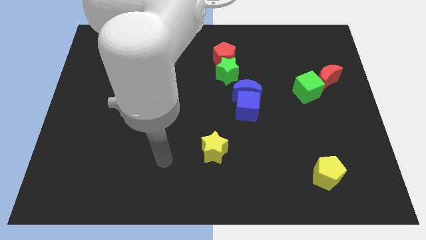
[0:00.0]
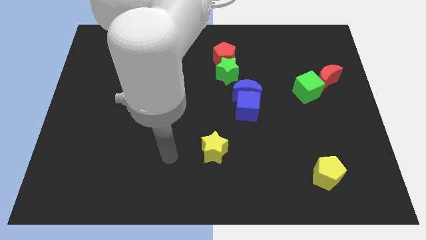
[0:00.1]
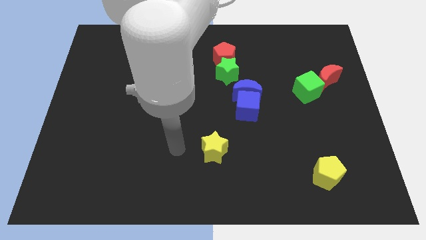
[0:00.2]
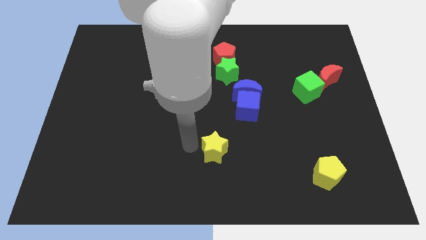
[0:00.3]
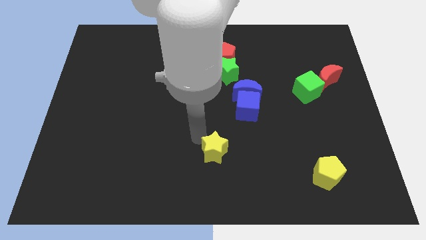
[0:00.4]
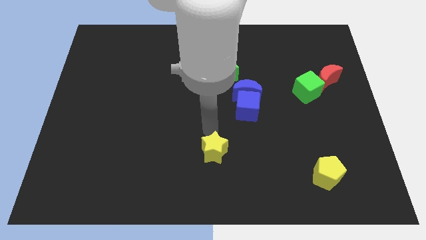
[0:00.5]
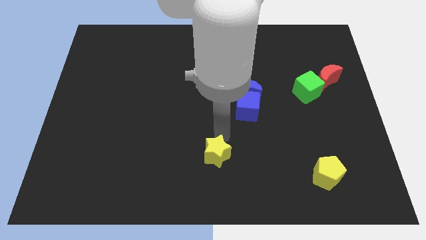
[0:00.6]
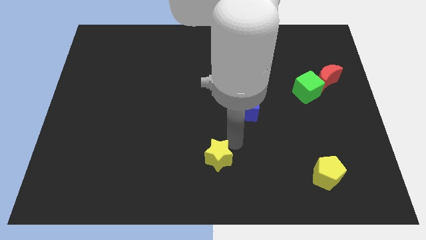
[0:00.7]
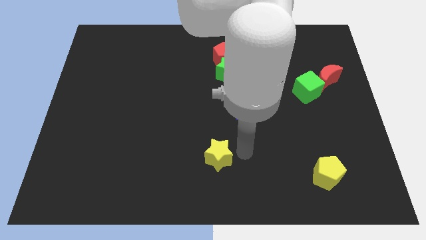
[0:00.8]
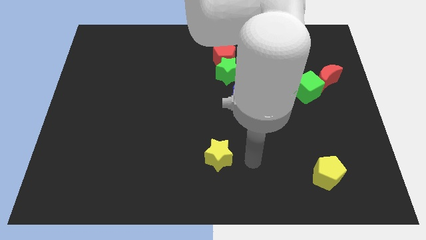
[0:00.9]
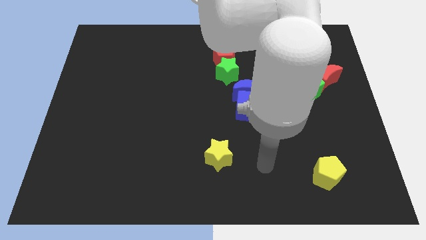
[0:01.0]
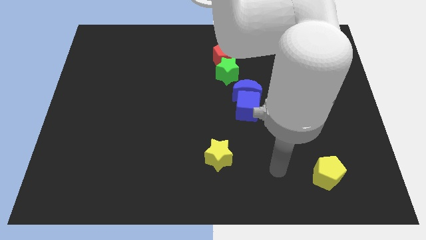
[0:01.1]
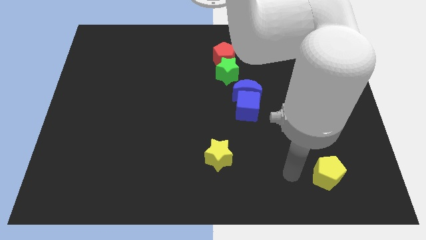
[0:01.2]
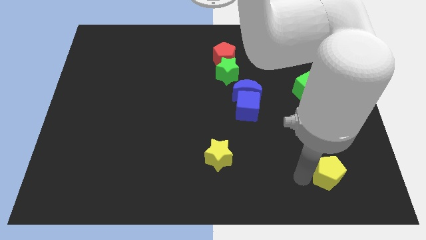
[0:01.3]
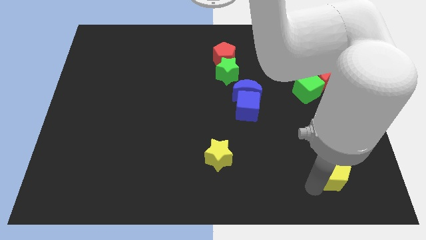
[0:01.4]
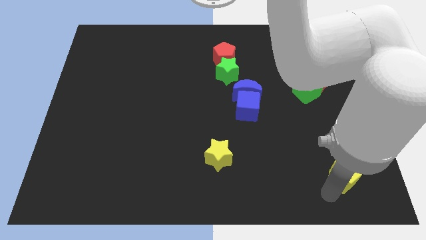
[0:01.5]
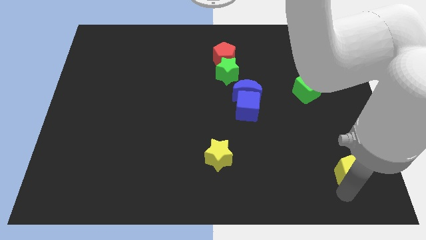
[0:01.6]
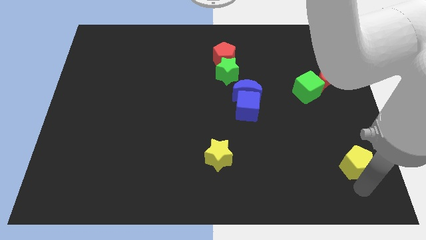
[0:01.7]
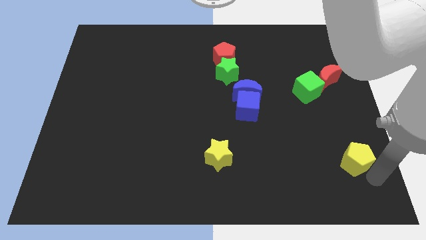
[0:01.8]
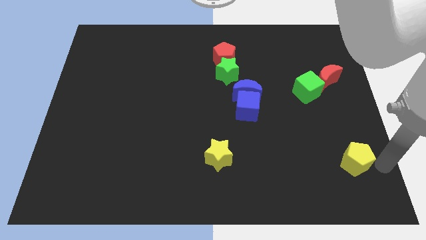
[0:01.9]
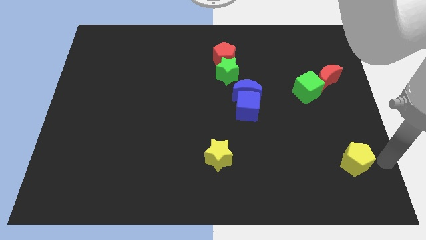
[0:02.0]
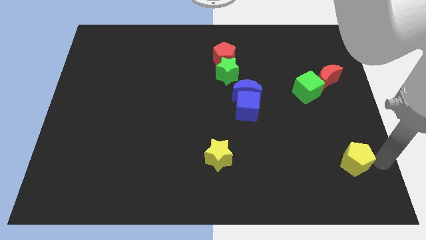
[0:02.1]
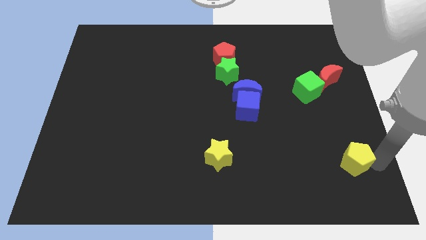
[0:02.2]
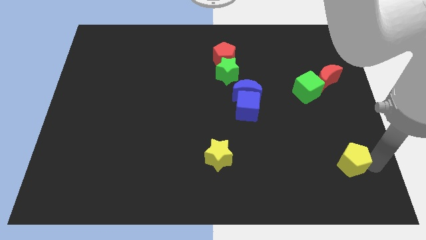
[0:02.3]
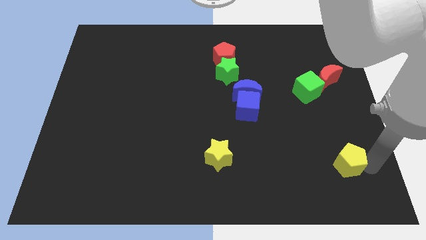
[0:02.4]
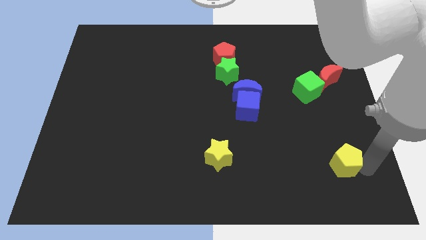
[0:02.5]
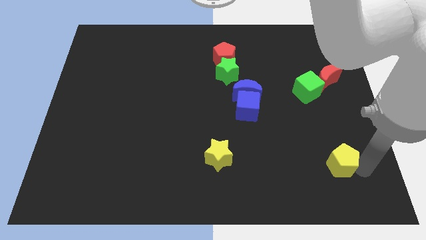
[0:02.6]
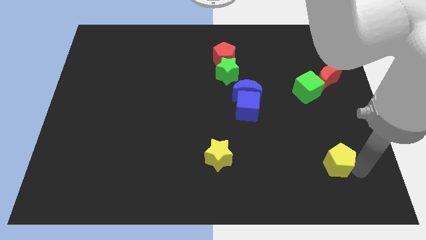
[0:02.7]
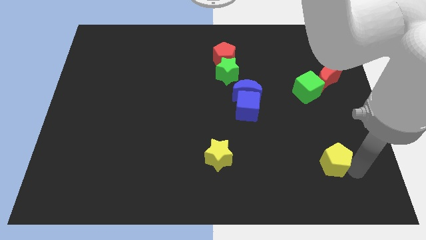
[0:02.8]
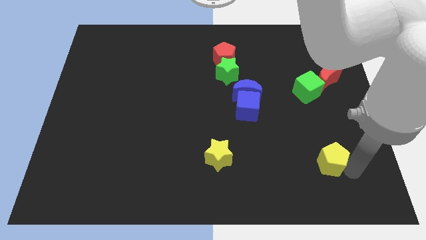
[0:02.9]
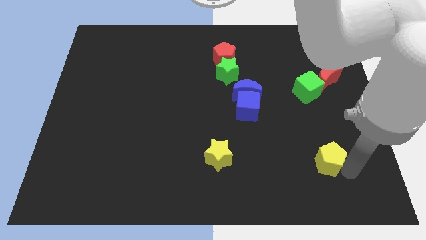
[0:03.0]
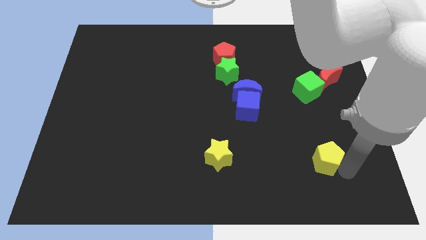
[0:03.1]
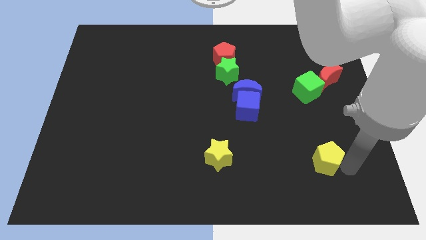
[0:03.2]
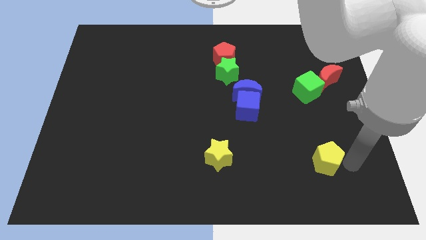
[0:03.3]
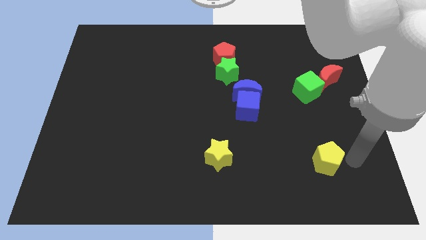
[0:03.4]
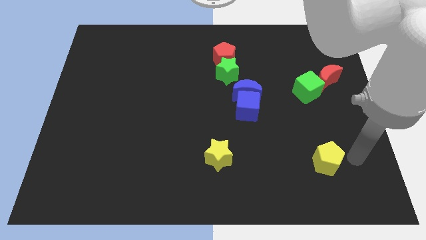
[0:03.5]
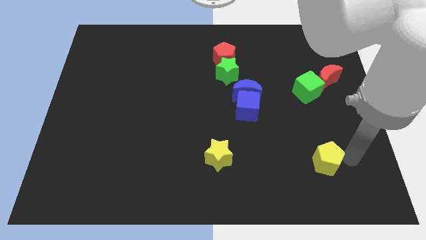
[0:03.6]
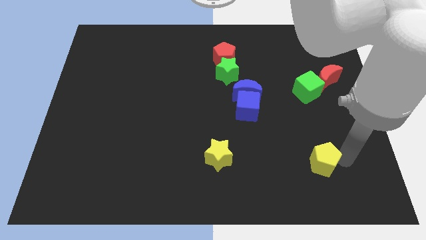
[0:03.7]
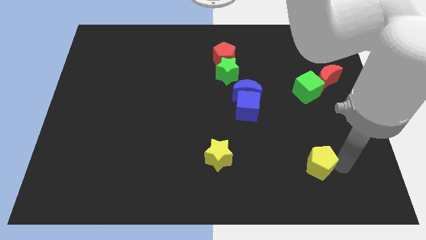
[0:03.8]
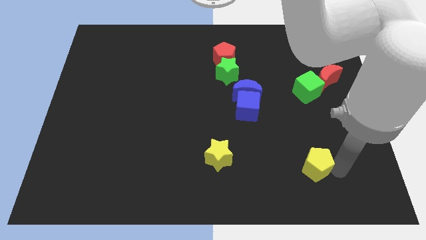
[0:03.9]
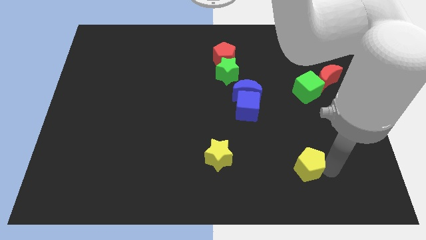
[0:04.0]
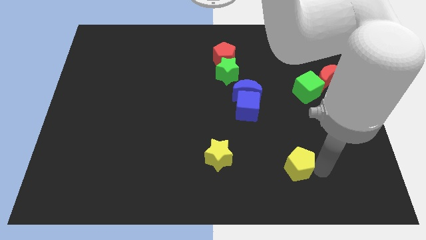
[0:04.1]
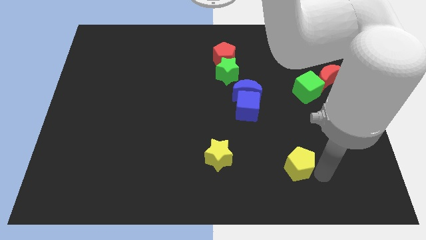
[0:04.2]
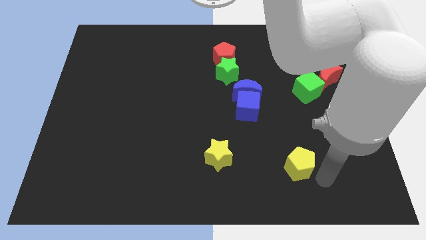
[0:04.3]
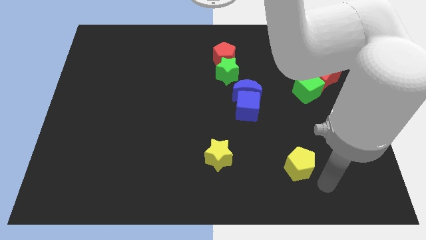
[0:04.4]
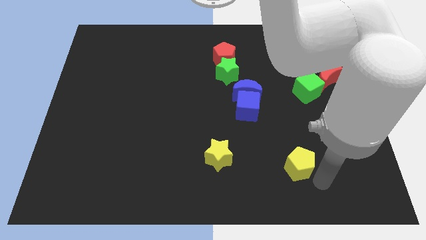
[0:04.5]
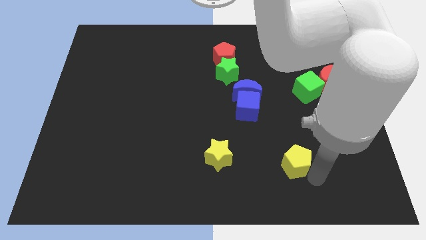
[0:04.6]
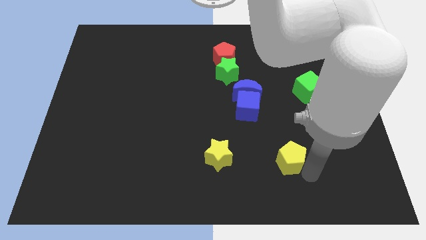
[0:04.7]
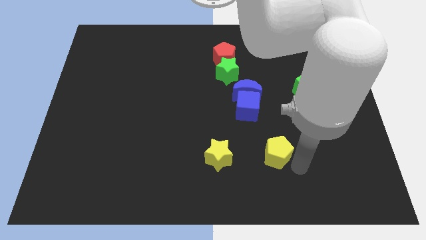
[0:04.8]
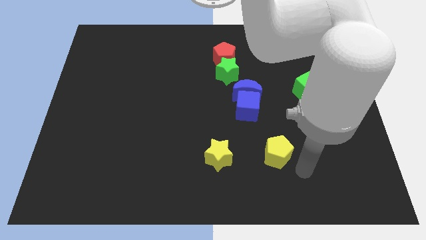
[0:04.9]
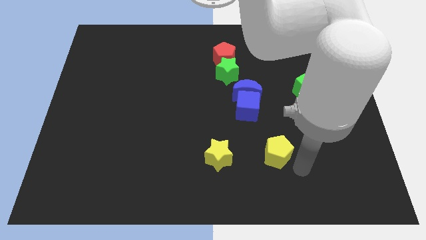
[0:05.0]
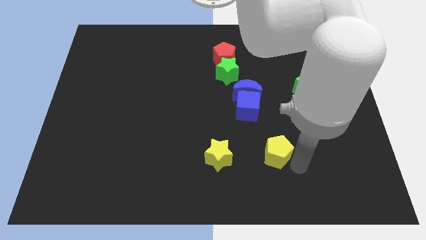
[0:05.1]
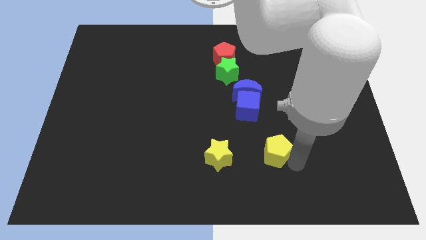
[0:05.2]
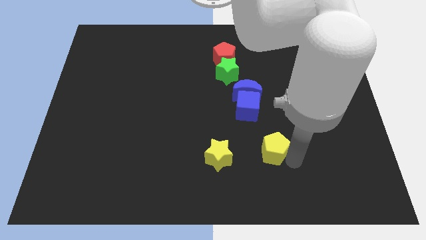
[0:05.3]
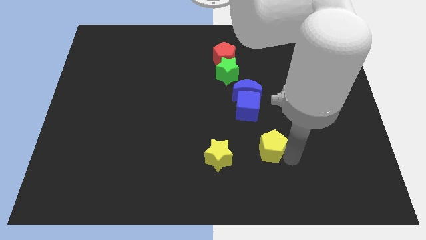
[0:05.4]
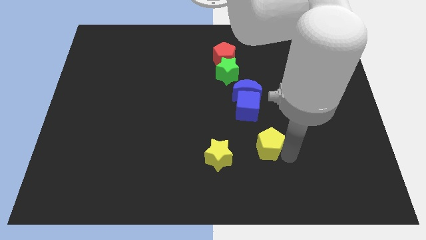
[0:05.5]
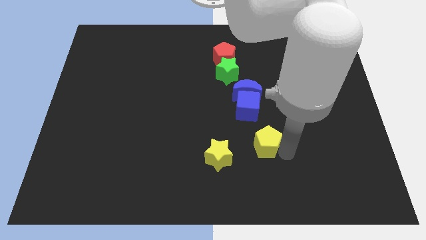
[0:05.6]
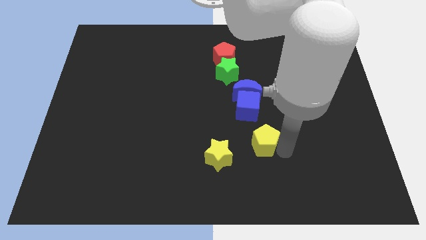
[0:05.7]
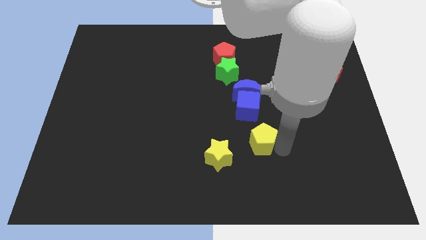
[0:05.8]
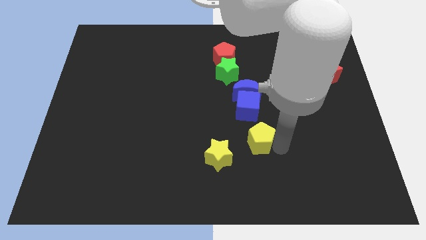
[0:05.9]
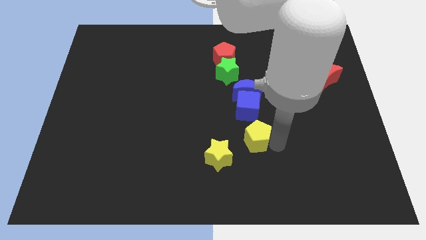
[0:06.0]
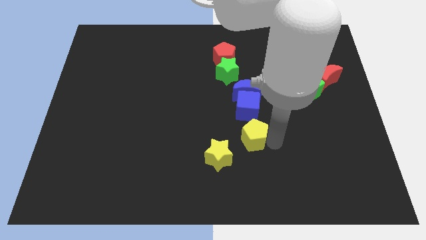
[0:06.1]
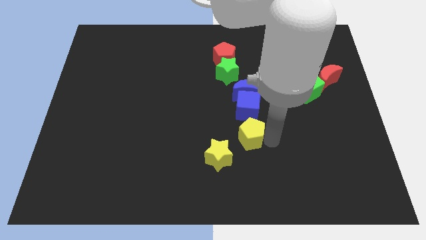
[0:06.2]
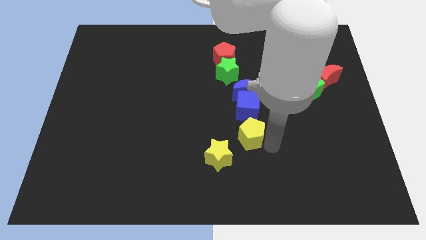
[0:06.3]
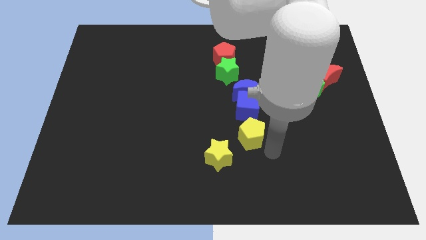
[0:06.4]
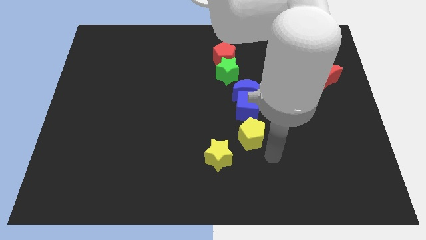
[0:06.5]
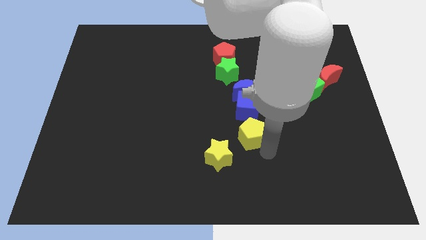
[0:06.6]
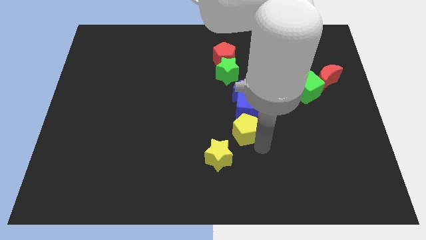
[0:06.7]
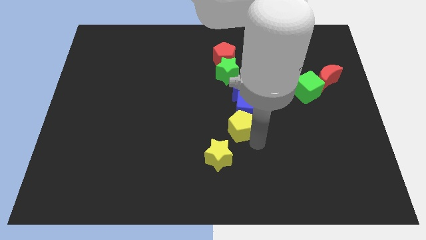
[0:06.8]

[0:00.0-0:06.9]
push the yellow pentagon upwards and then to the left

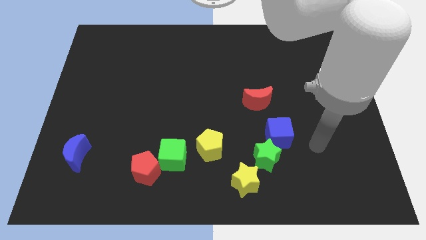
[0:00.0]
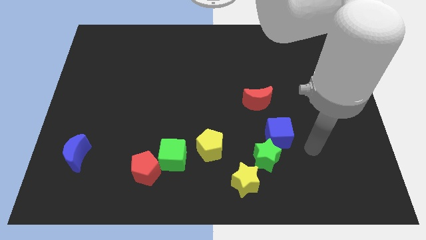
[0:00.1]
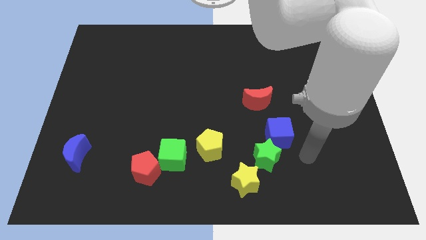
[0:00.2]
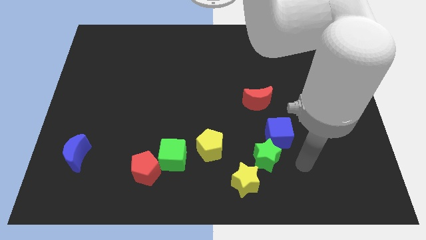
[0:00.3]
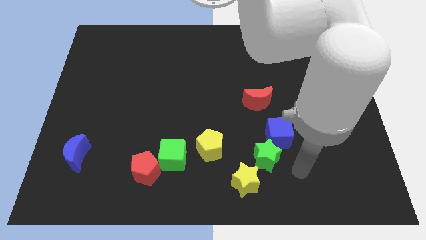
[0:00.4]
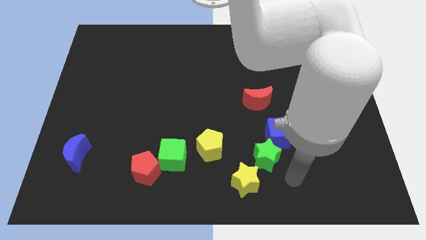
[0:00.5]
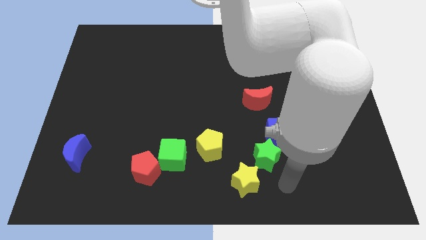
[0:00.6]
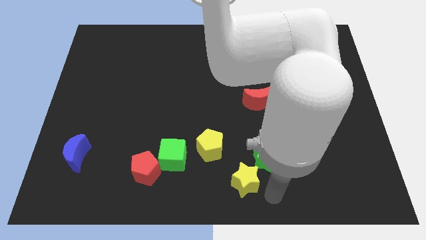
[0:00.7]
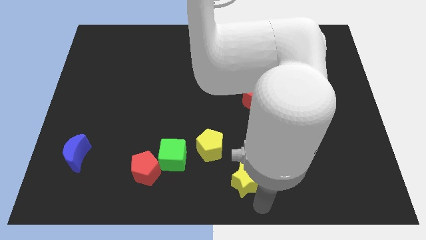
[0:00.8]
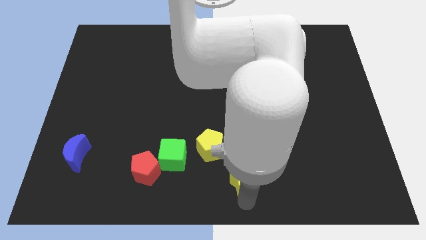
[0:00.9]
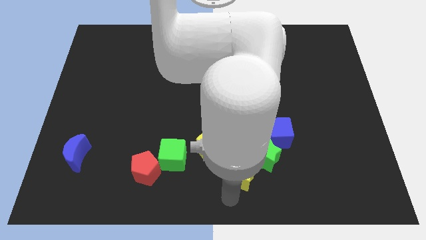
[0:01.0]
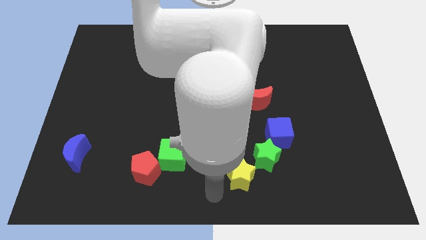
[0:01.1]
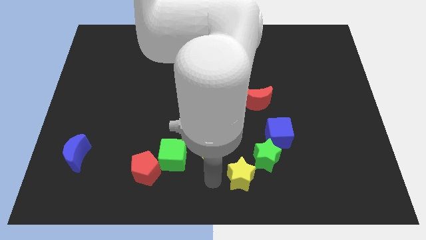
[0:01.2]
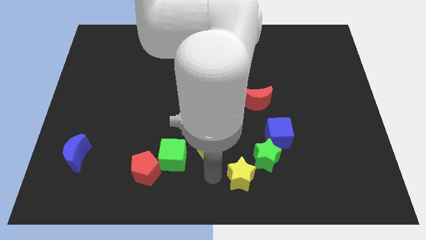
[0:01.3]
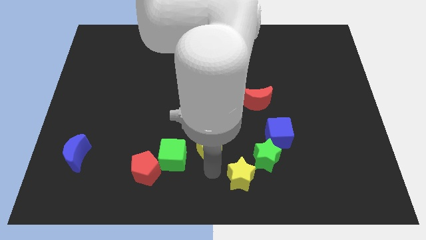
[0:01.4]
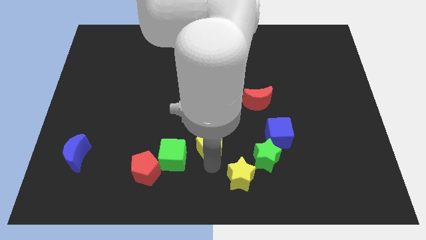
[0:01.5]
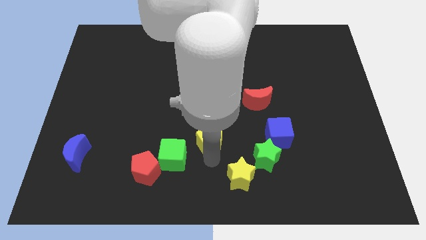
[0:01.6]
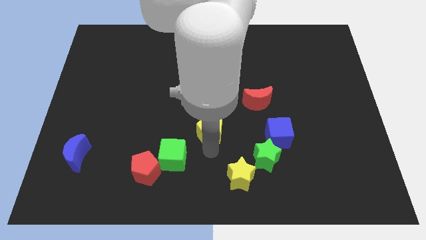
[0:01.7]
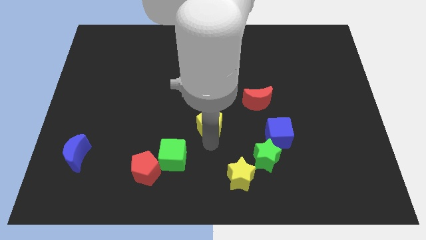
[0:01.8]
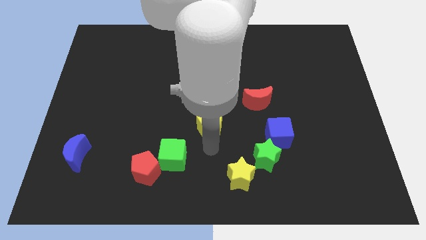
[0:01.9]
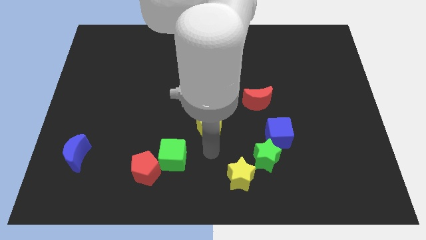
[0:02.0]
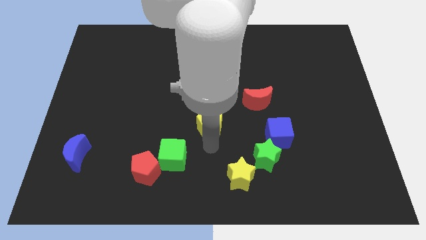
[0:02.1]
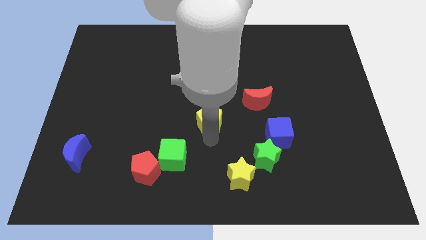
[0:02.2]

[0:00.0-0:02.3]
slide the yellow pentagon upwards a little bit
